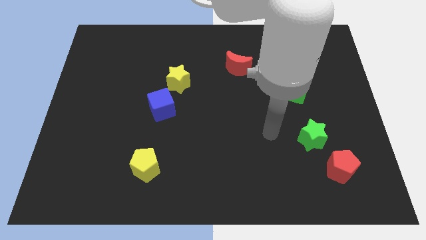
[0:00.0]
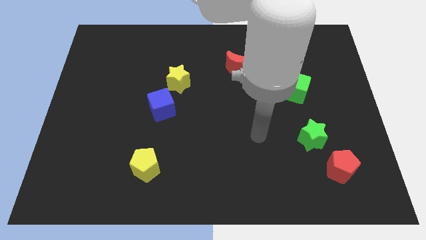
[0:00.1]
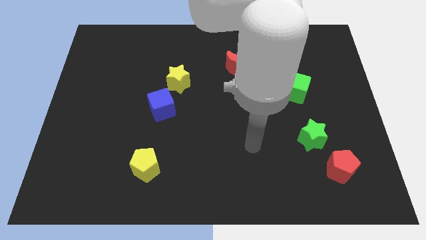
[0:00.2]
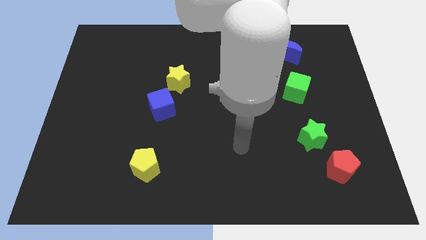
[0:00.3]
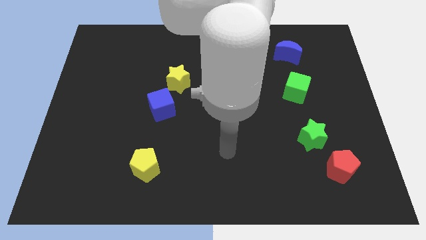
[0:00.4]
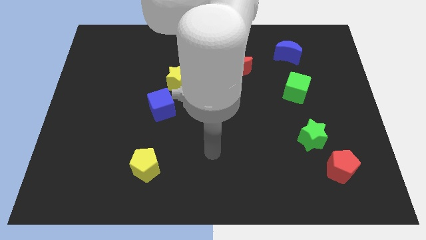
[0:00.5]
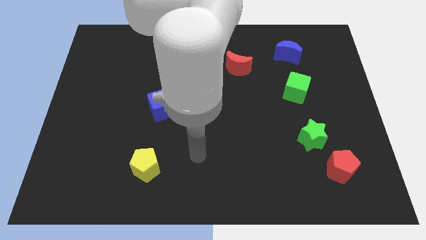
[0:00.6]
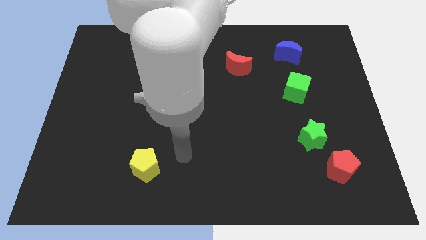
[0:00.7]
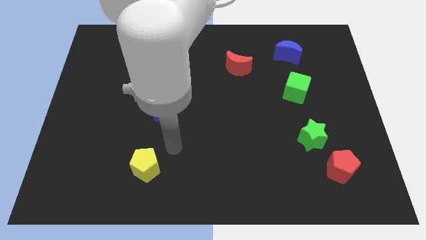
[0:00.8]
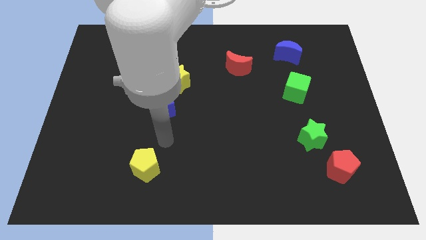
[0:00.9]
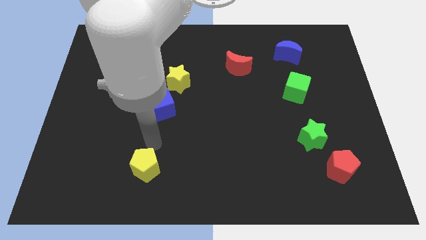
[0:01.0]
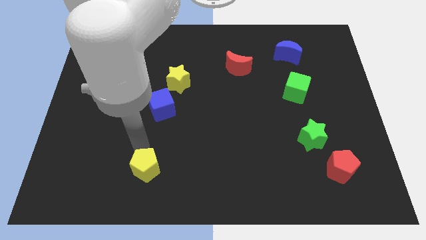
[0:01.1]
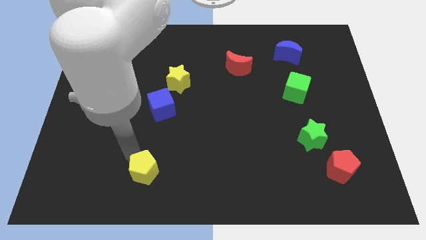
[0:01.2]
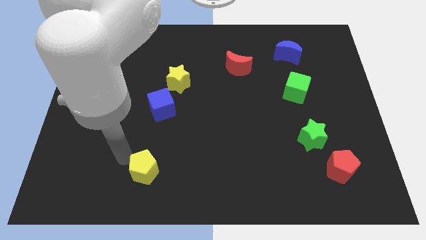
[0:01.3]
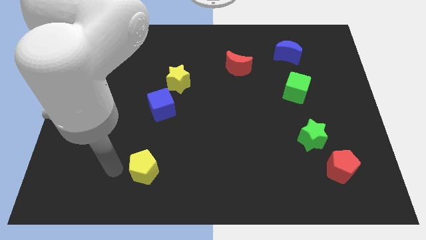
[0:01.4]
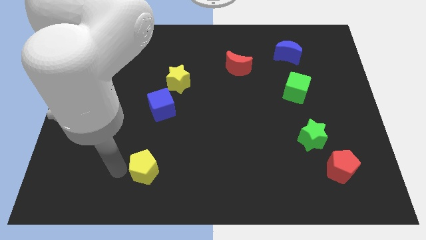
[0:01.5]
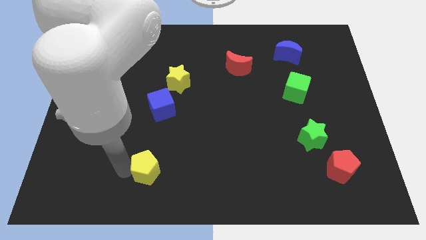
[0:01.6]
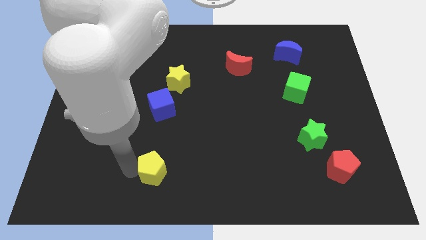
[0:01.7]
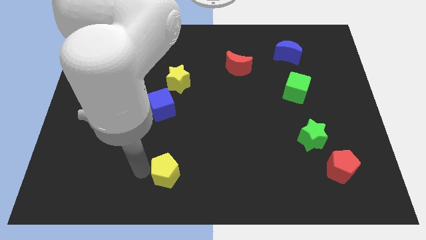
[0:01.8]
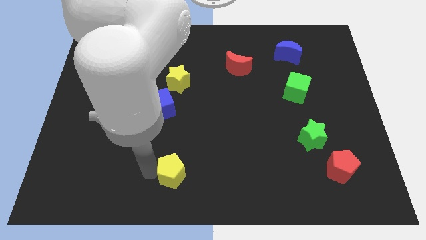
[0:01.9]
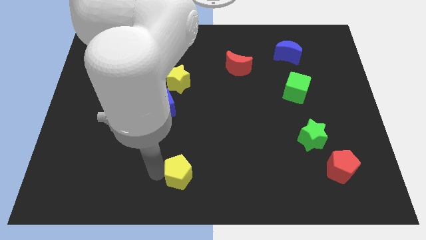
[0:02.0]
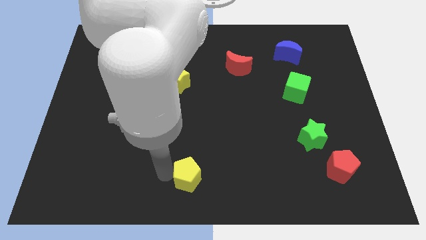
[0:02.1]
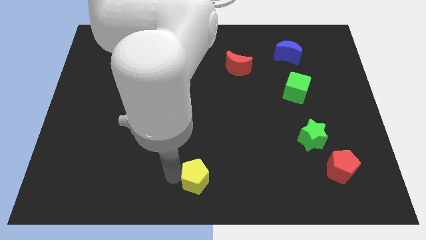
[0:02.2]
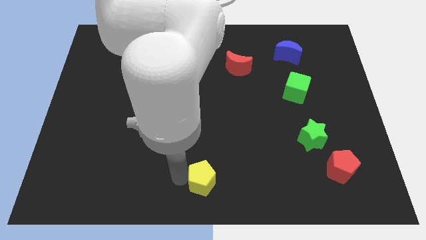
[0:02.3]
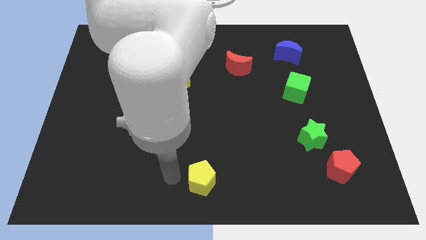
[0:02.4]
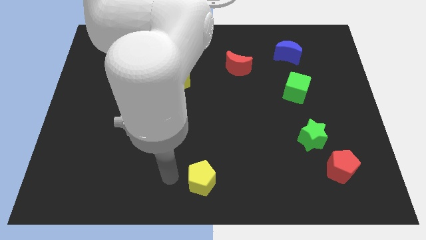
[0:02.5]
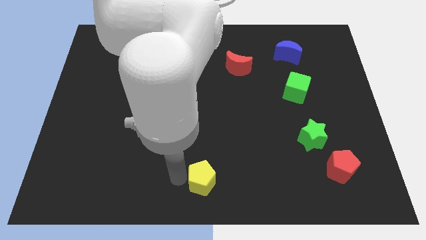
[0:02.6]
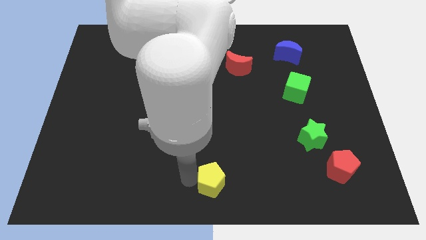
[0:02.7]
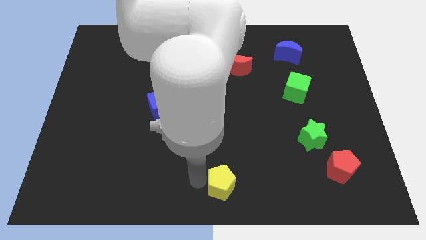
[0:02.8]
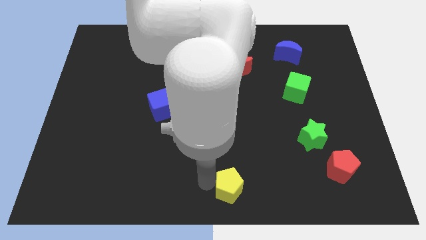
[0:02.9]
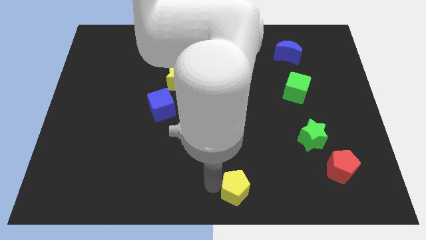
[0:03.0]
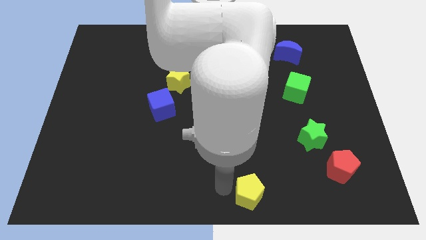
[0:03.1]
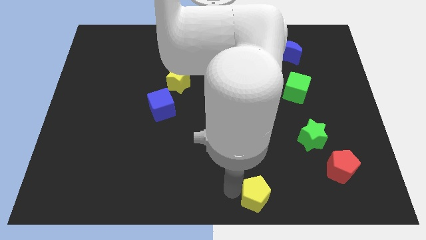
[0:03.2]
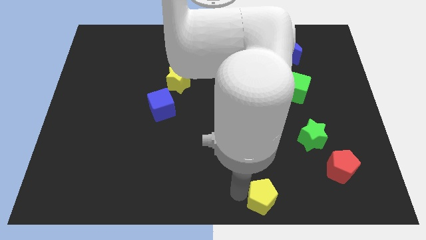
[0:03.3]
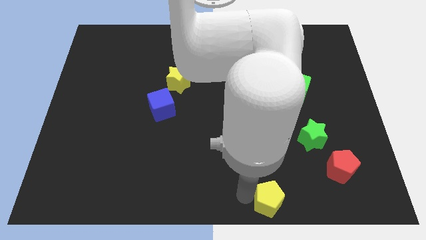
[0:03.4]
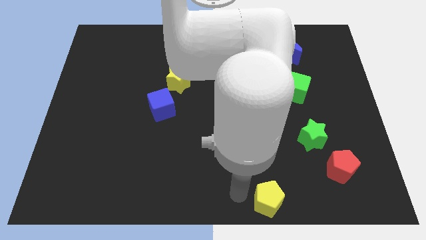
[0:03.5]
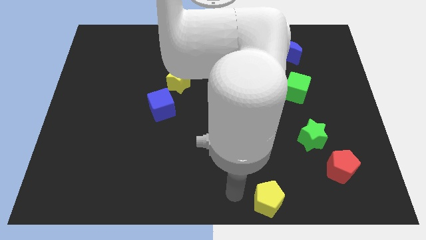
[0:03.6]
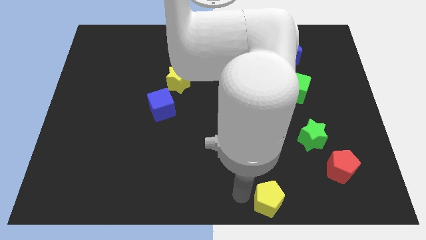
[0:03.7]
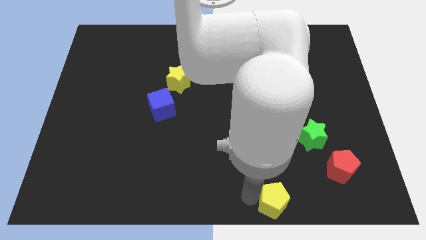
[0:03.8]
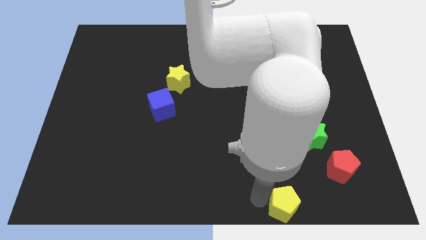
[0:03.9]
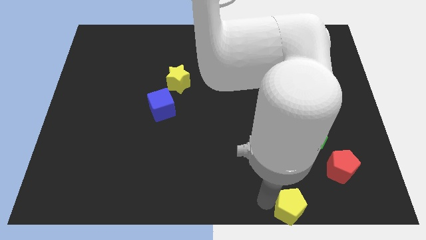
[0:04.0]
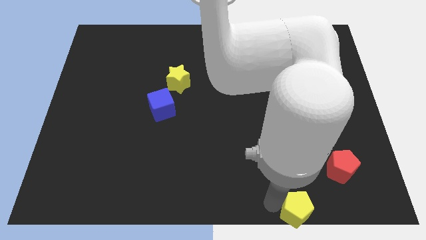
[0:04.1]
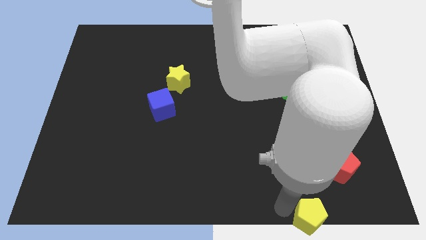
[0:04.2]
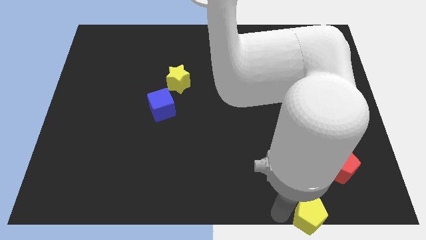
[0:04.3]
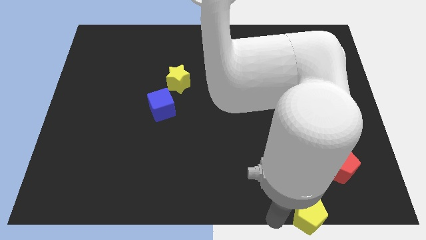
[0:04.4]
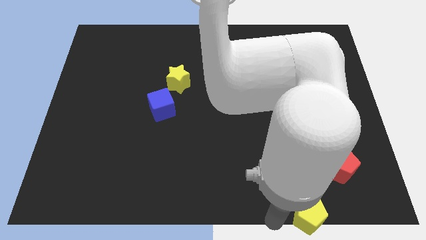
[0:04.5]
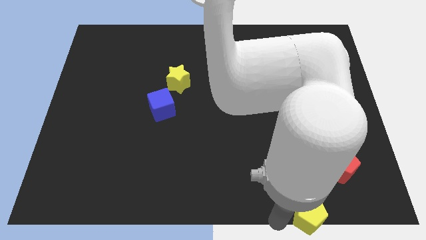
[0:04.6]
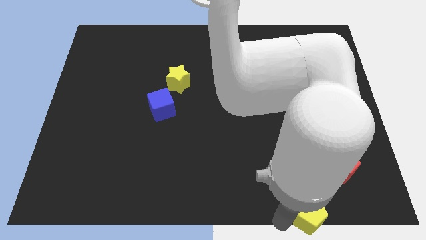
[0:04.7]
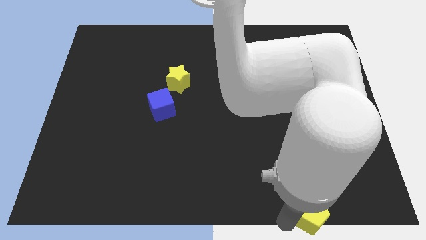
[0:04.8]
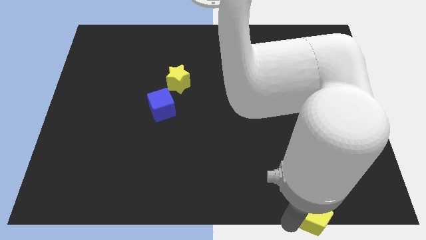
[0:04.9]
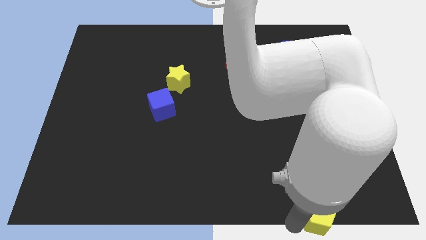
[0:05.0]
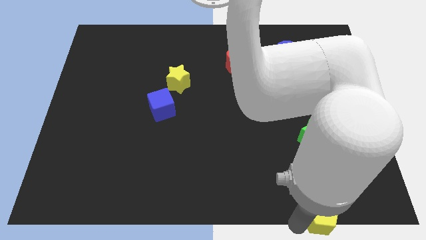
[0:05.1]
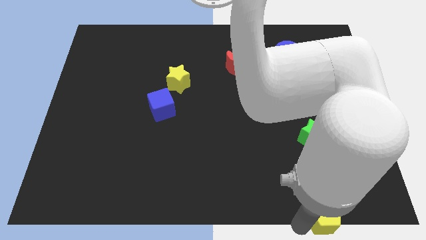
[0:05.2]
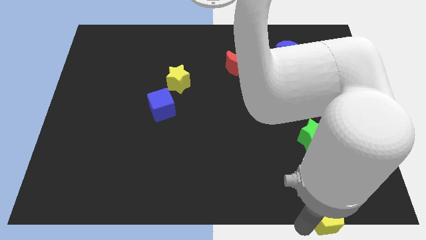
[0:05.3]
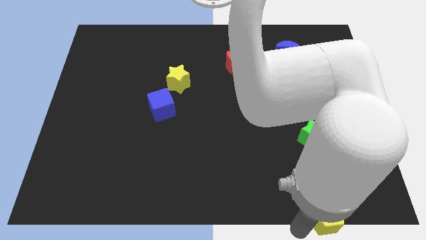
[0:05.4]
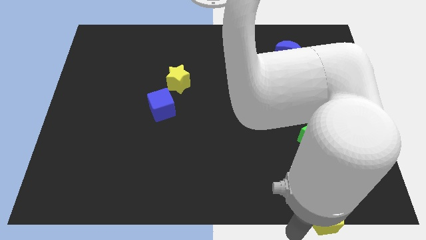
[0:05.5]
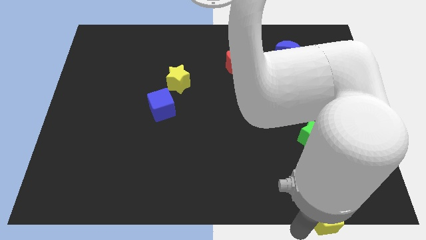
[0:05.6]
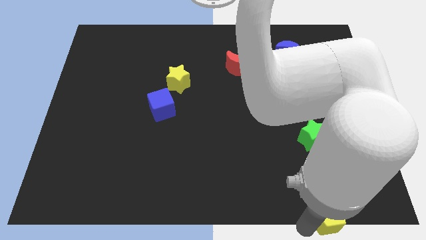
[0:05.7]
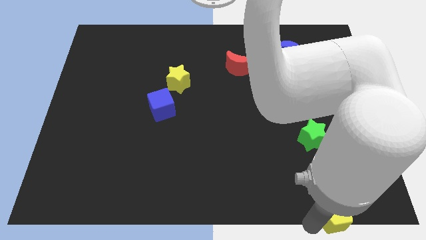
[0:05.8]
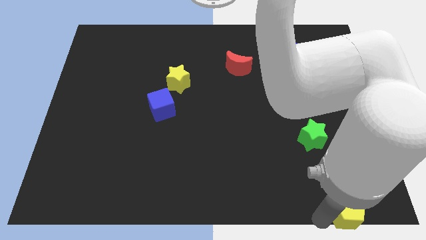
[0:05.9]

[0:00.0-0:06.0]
slide the yellow pentagon to the lower right corner
